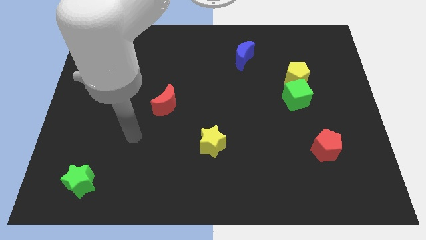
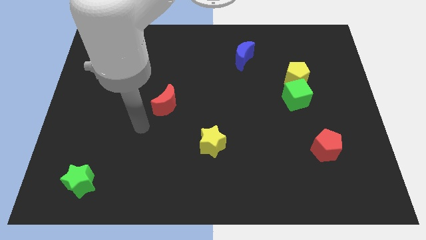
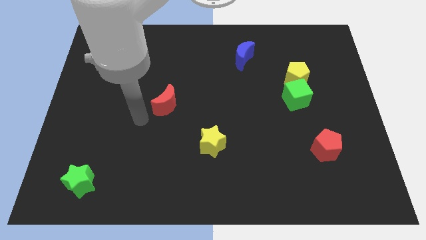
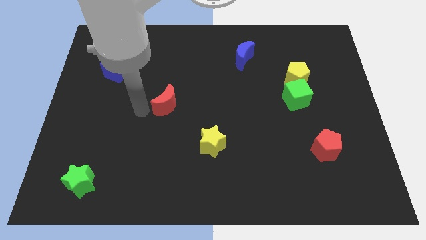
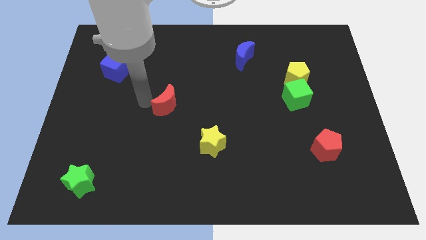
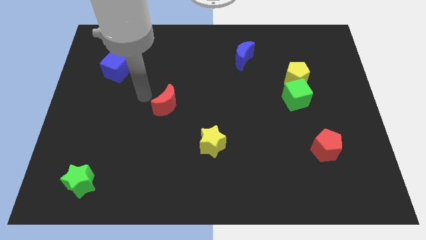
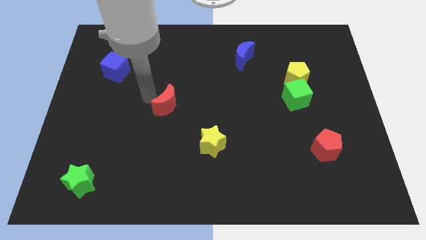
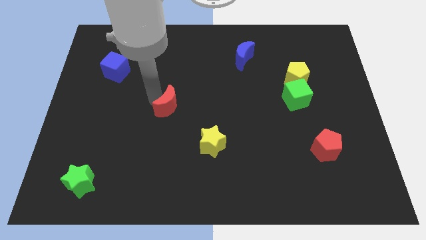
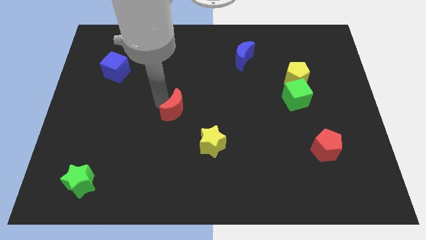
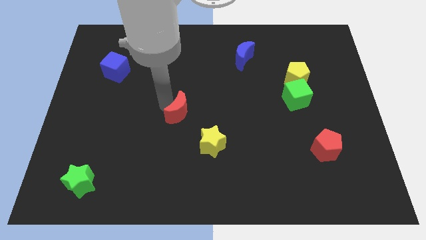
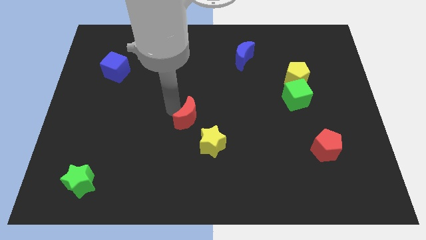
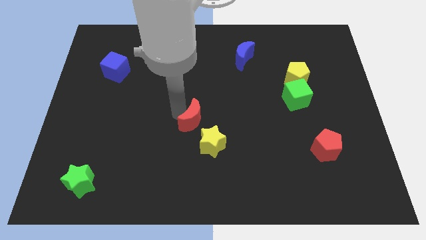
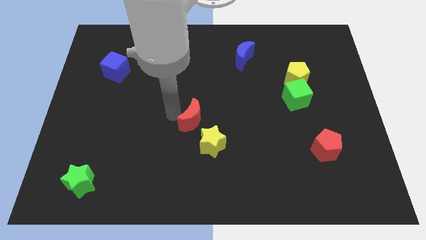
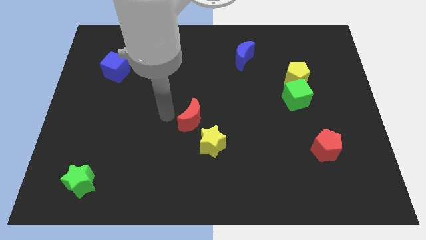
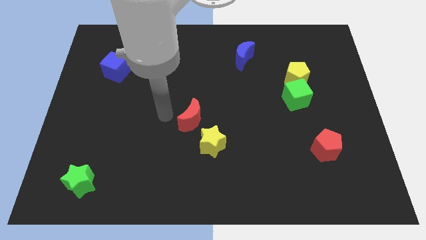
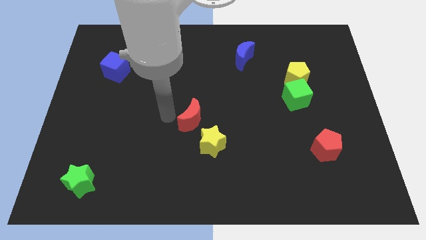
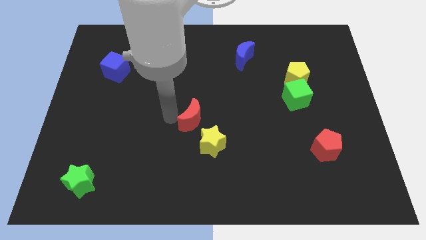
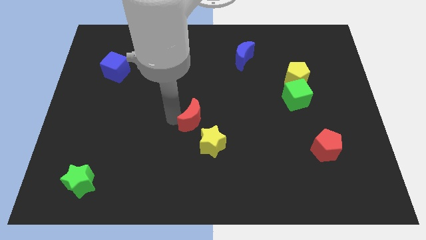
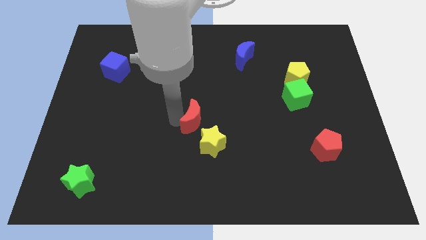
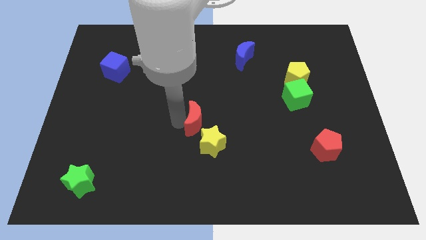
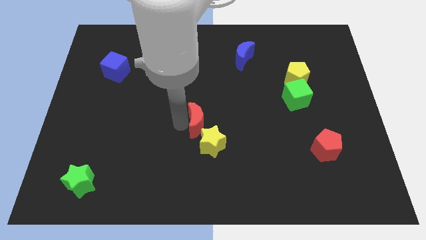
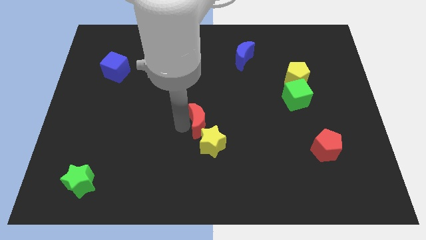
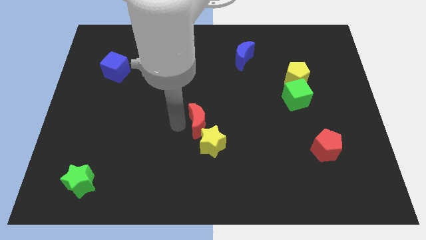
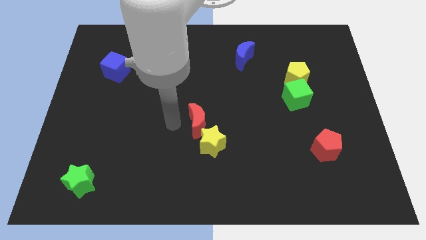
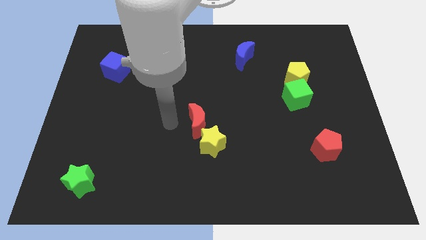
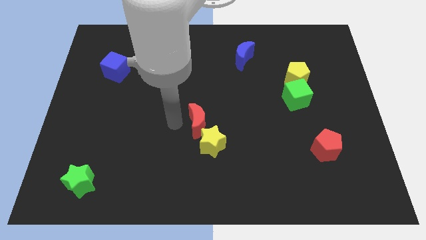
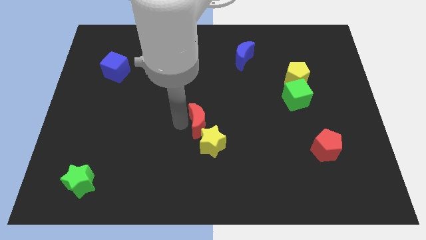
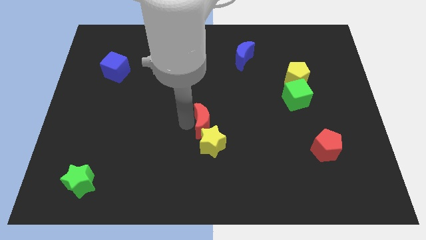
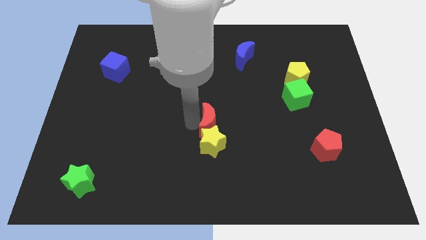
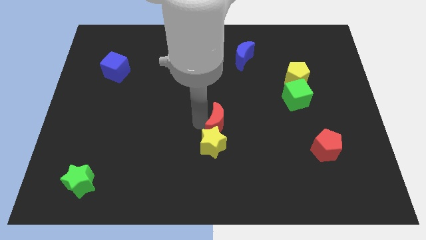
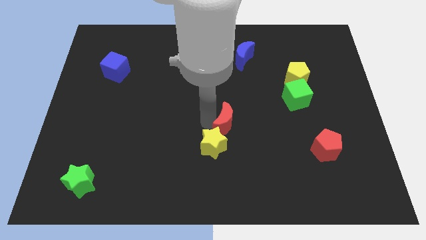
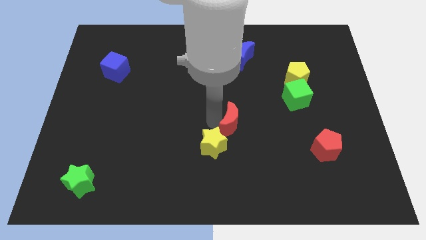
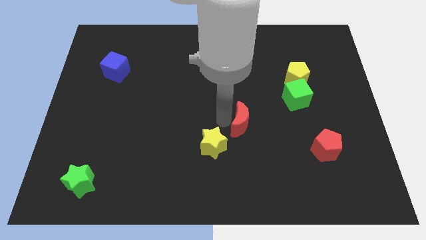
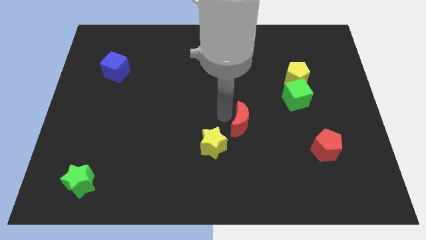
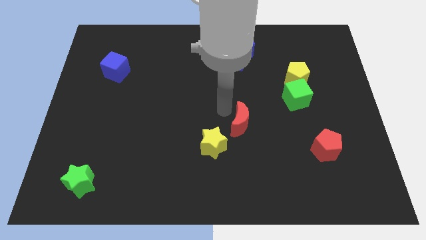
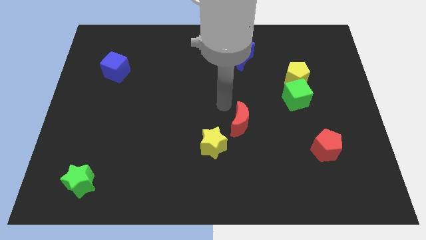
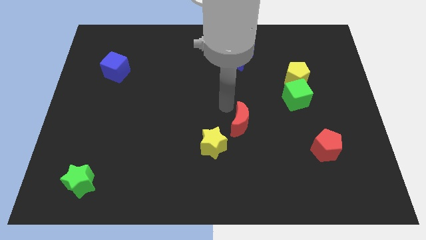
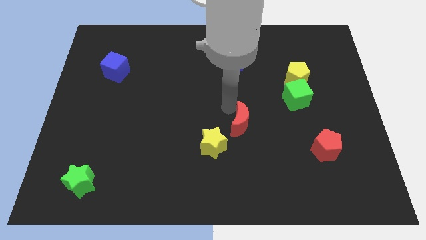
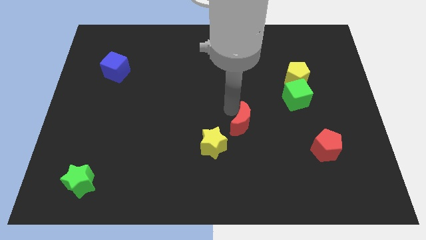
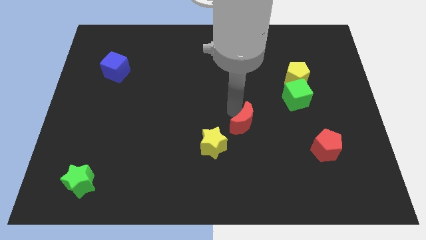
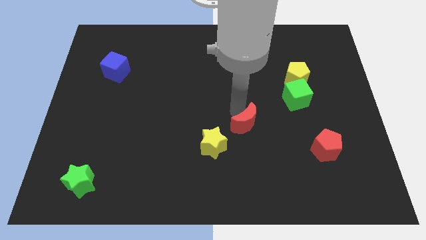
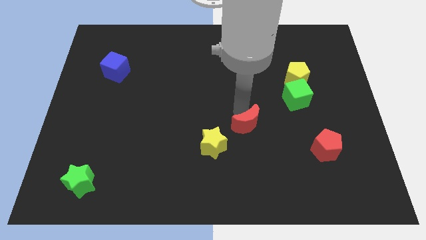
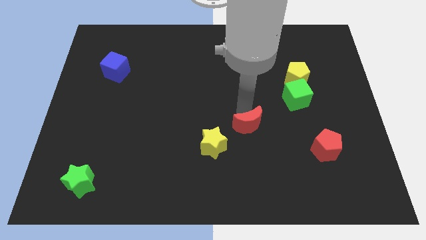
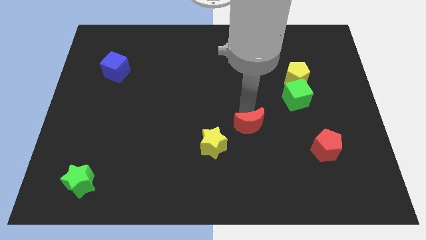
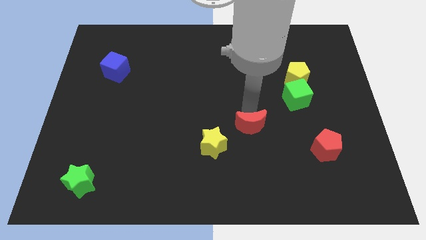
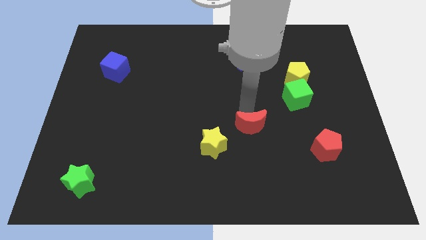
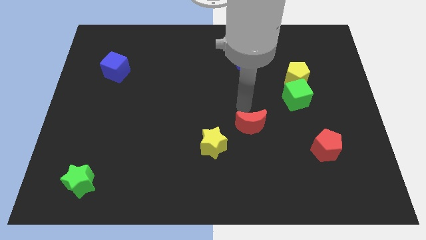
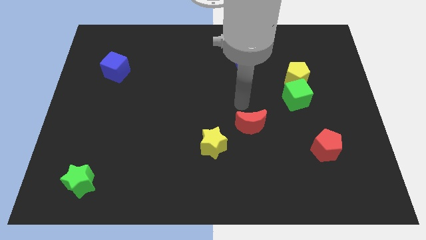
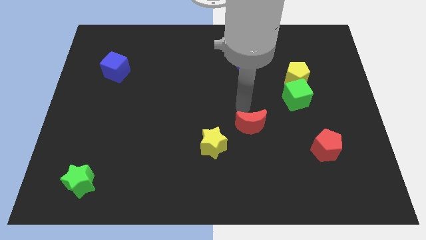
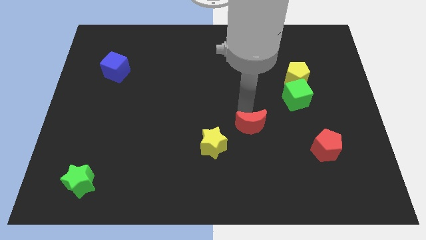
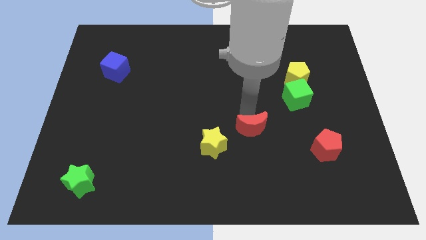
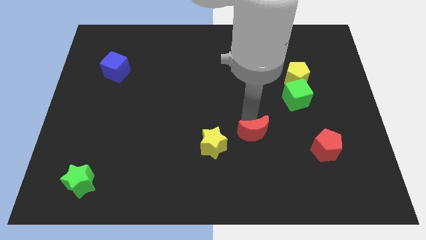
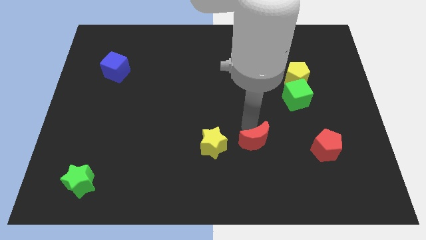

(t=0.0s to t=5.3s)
move the red moon to the left side of the red pentagon

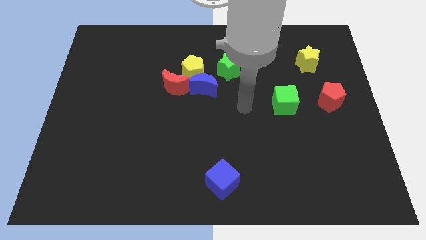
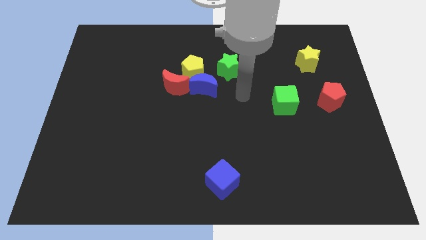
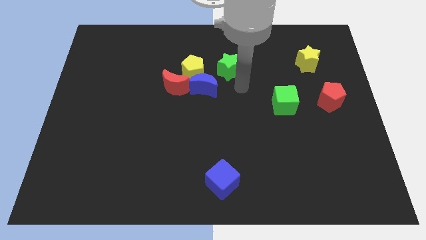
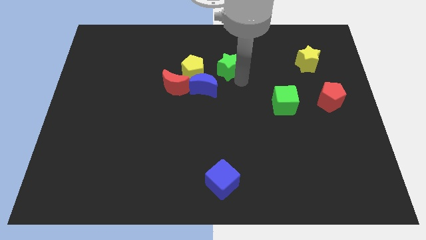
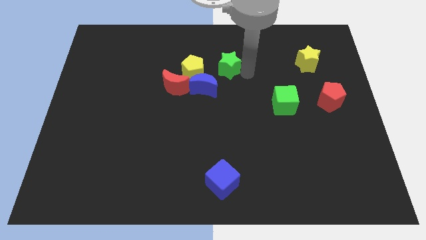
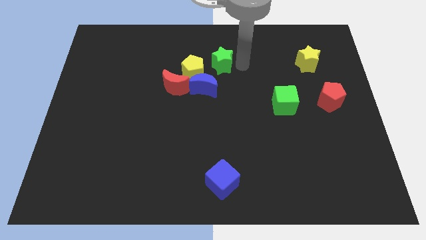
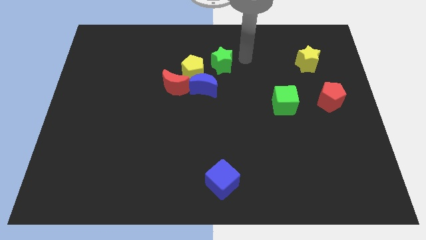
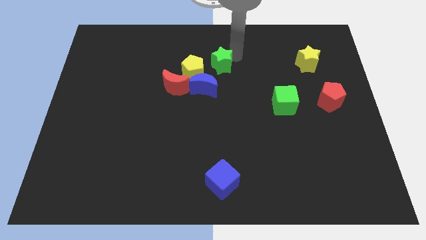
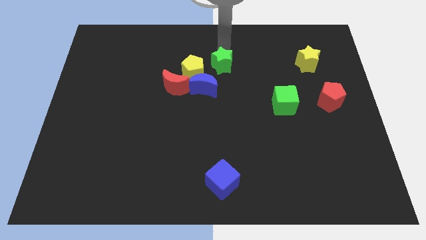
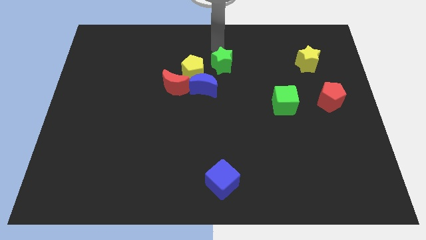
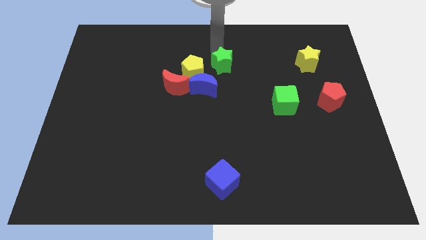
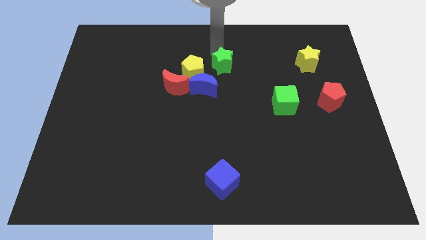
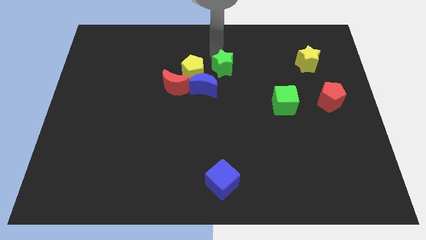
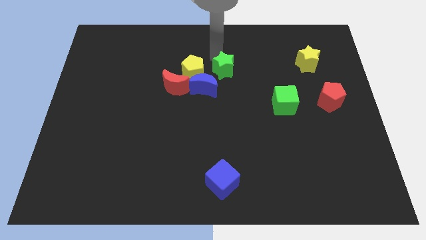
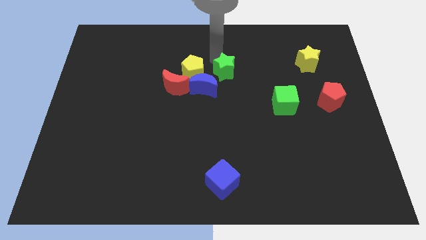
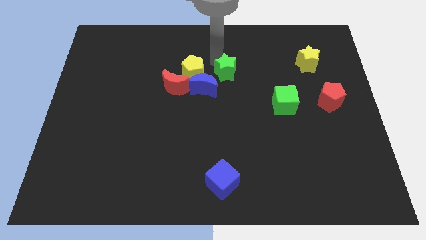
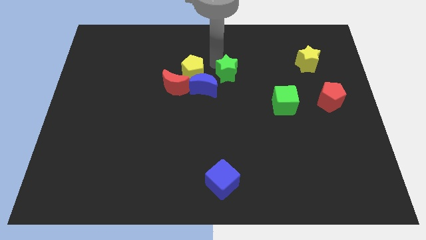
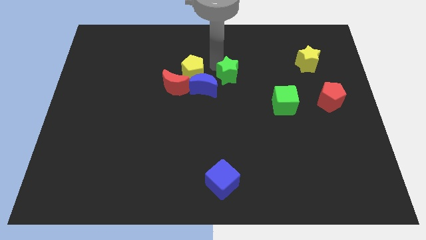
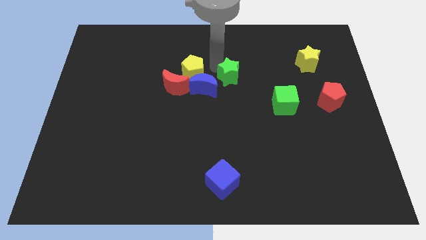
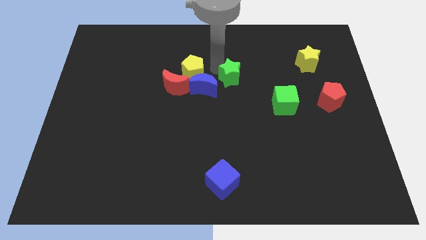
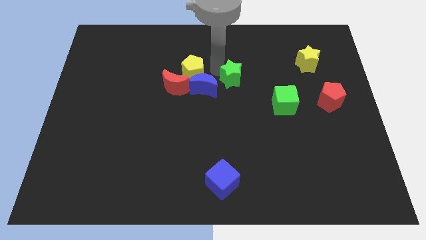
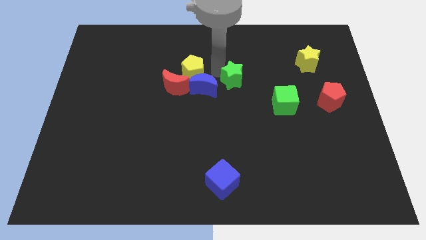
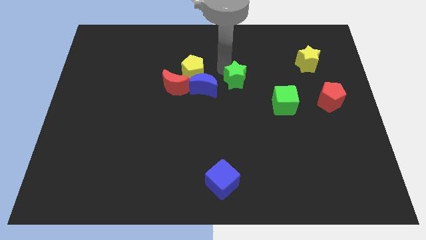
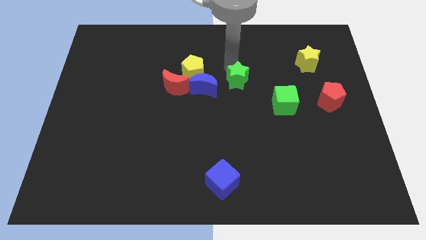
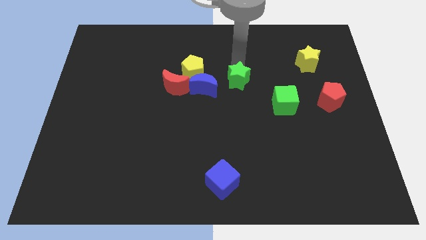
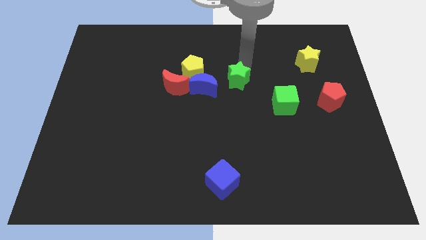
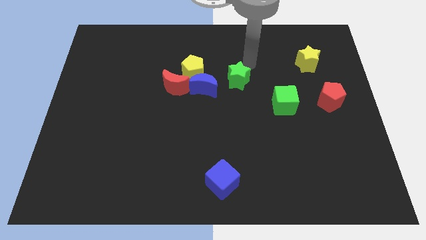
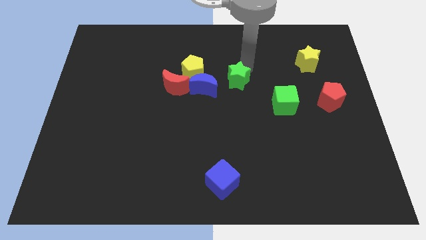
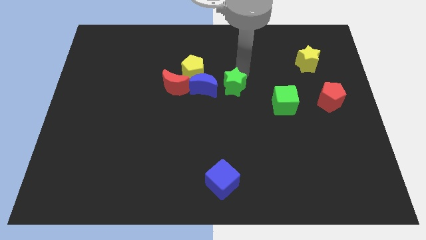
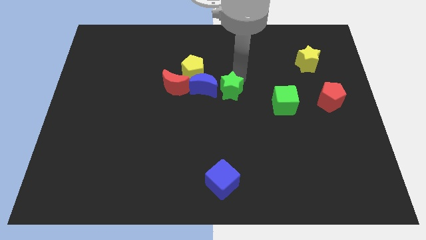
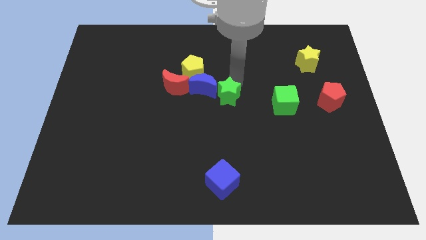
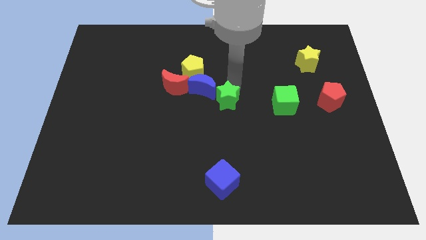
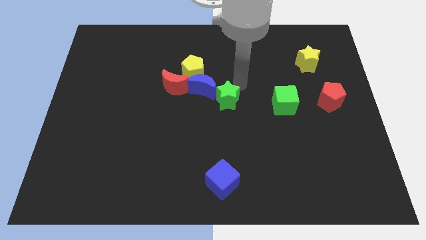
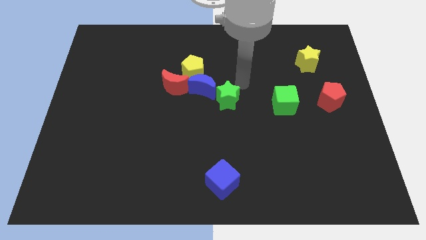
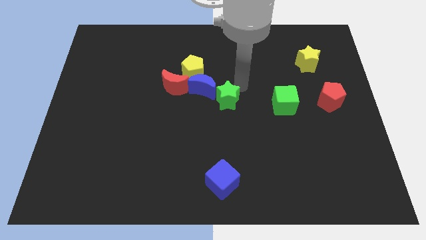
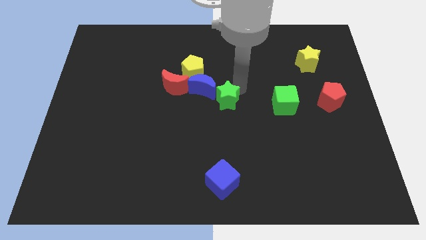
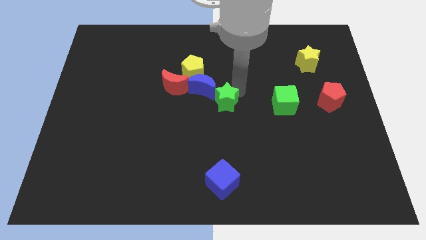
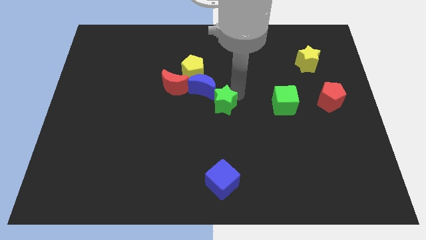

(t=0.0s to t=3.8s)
put the green star to the bottom side of the blue moon
